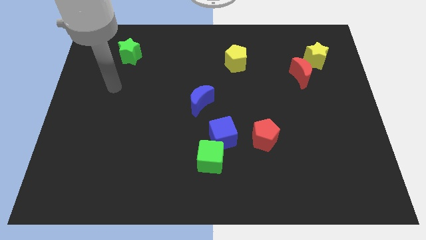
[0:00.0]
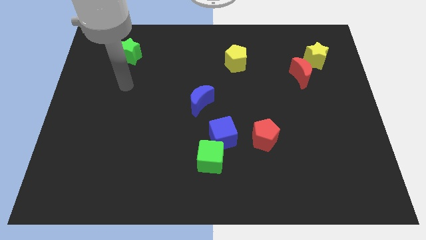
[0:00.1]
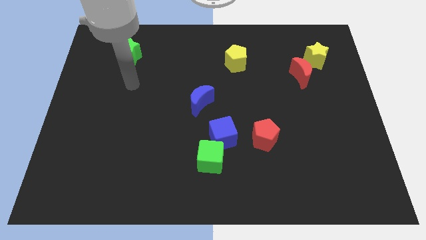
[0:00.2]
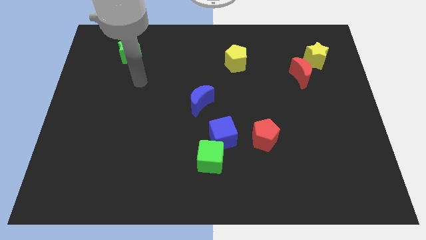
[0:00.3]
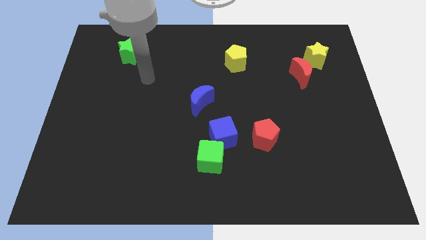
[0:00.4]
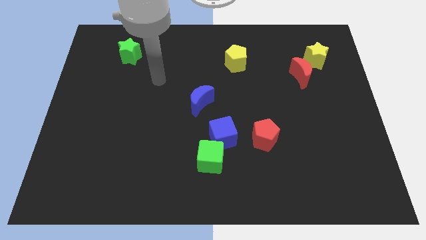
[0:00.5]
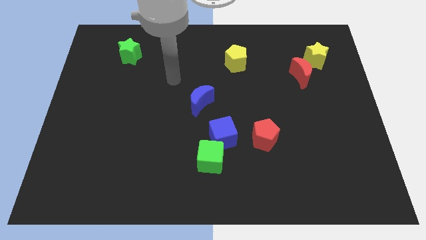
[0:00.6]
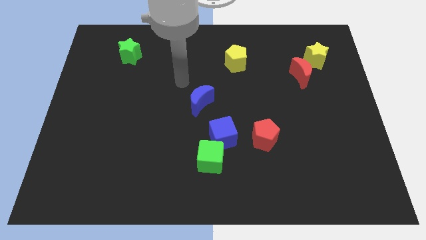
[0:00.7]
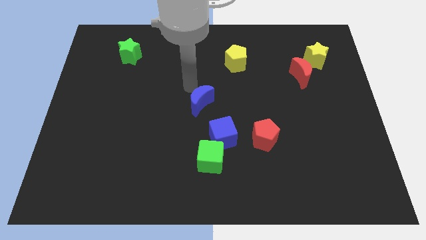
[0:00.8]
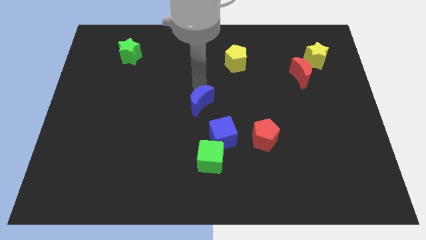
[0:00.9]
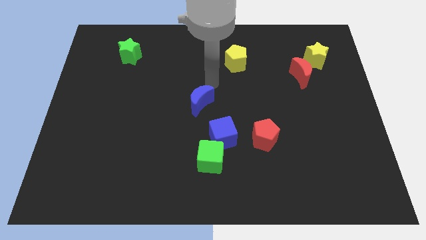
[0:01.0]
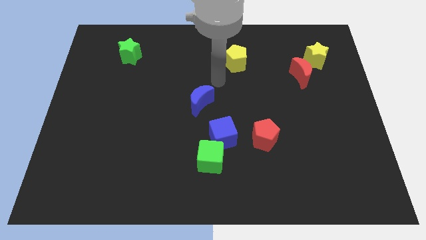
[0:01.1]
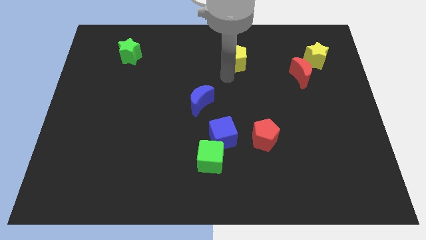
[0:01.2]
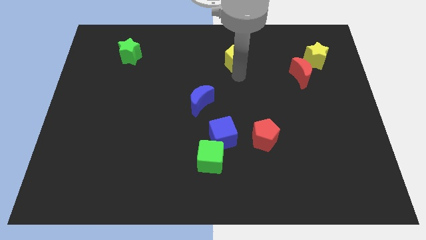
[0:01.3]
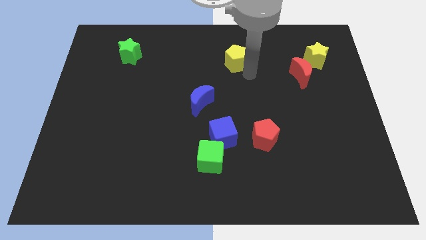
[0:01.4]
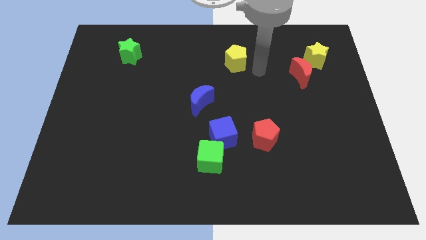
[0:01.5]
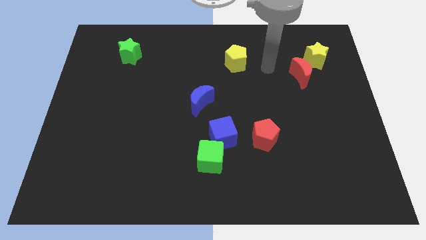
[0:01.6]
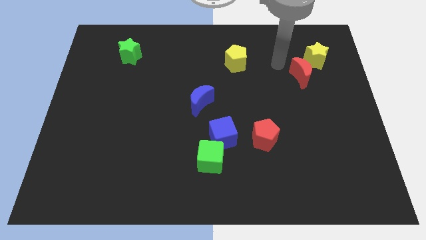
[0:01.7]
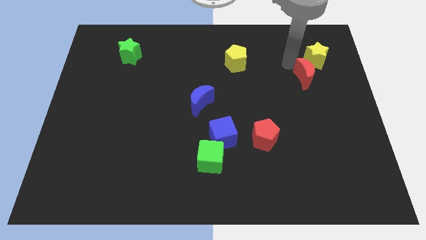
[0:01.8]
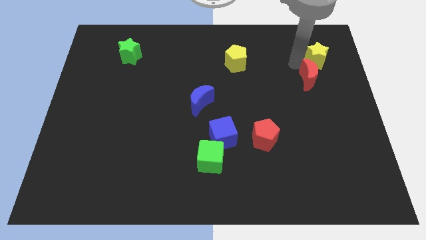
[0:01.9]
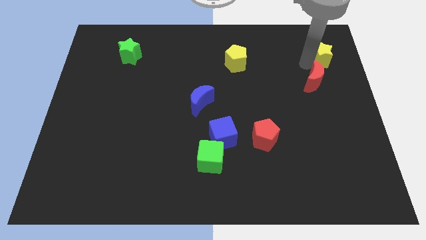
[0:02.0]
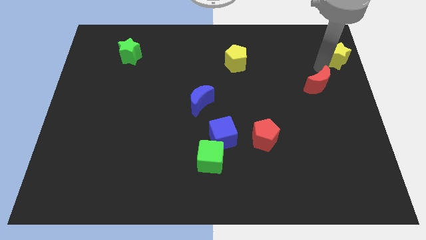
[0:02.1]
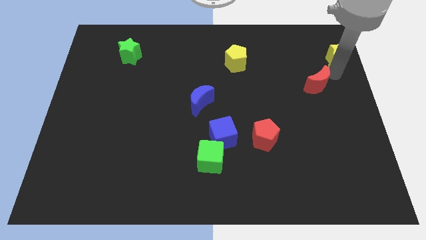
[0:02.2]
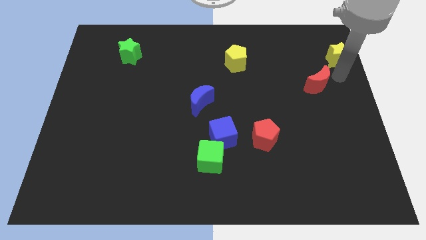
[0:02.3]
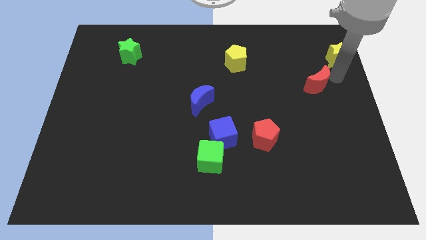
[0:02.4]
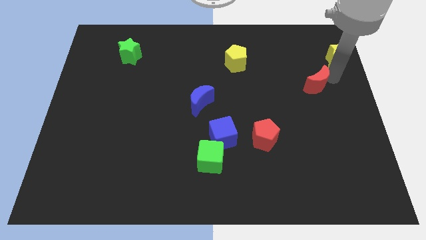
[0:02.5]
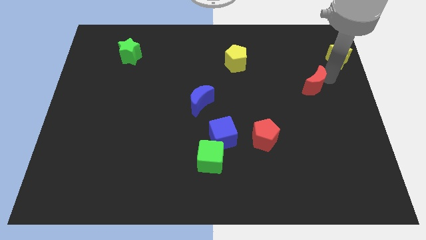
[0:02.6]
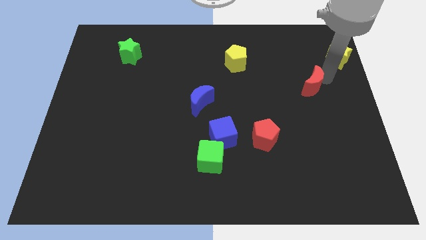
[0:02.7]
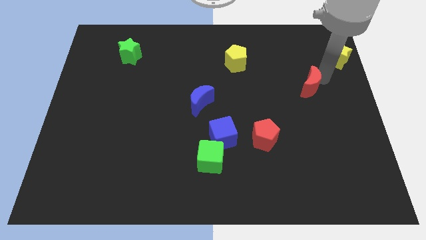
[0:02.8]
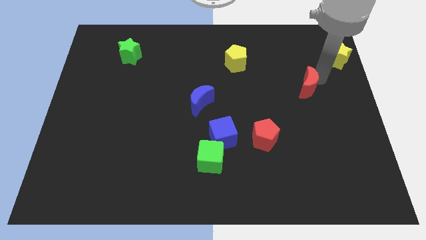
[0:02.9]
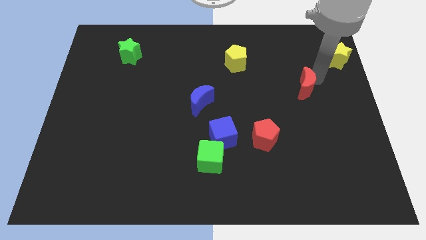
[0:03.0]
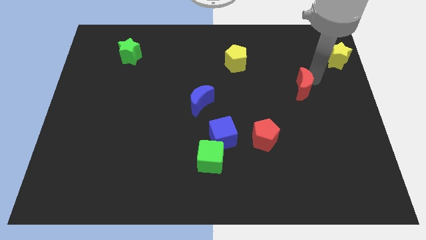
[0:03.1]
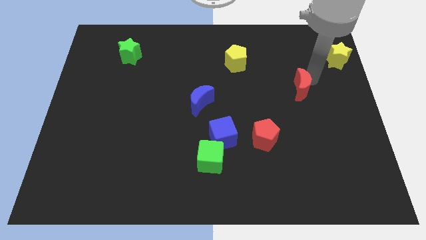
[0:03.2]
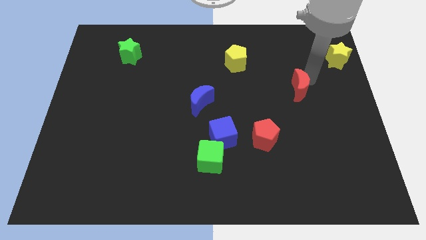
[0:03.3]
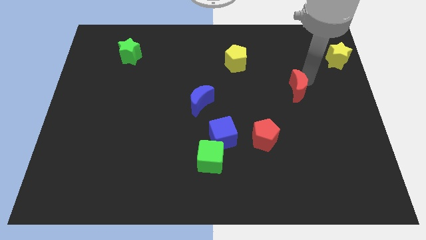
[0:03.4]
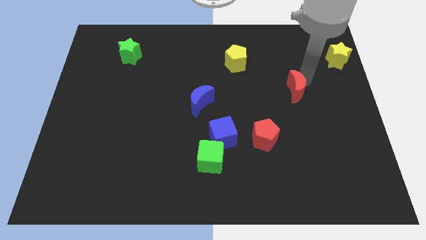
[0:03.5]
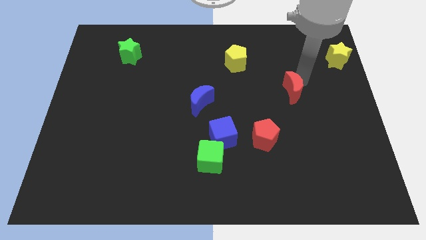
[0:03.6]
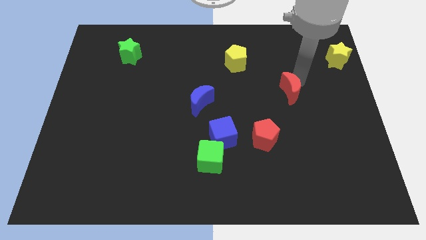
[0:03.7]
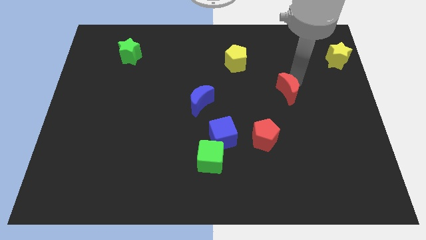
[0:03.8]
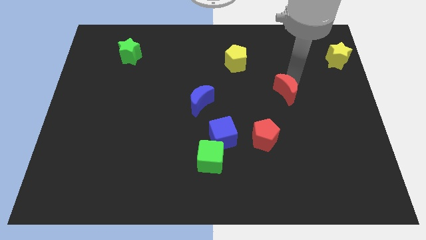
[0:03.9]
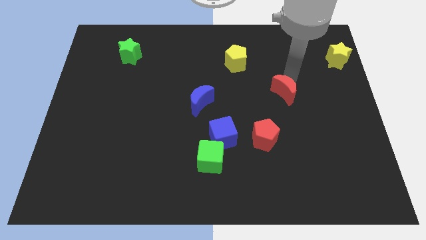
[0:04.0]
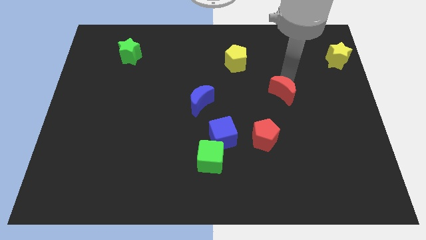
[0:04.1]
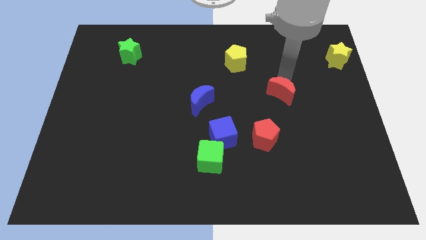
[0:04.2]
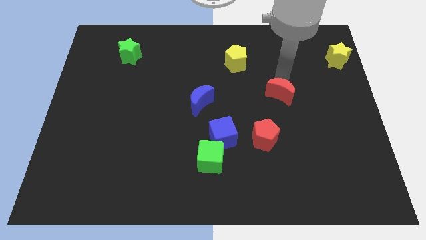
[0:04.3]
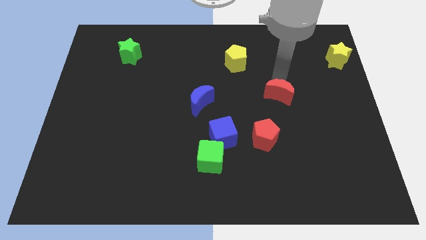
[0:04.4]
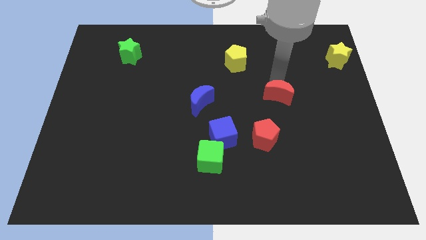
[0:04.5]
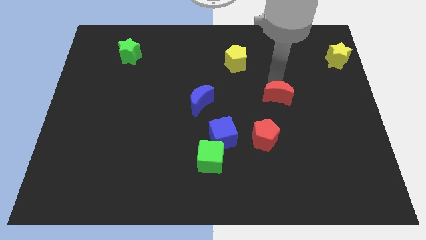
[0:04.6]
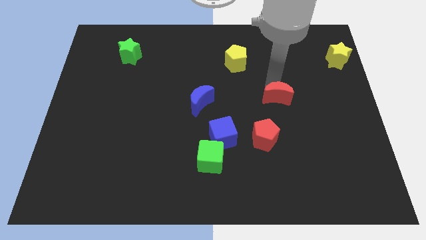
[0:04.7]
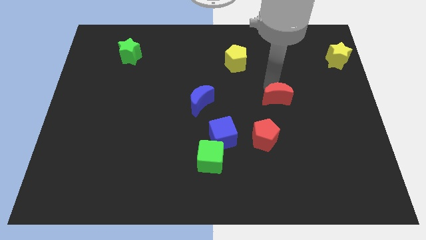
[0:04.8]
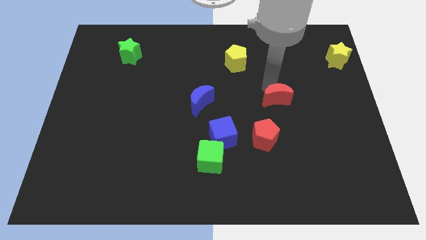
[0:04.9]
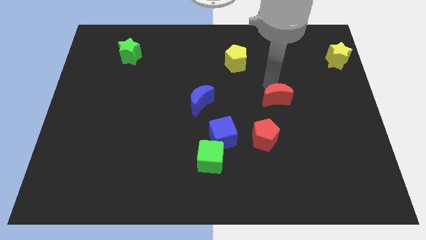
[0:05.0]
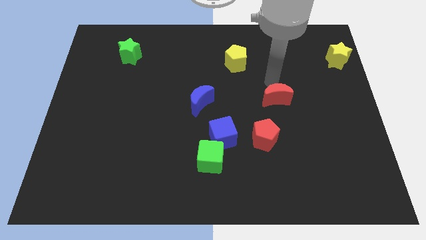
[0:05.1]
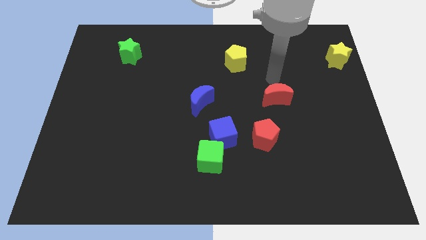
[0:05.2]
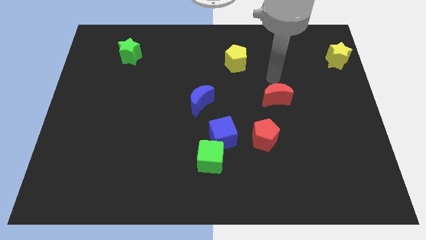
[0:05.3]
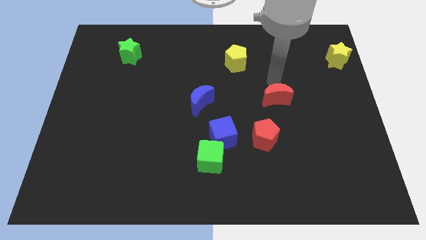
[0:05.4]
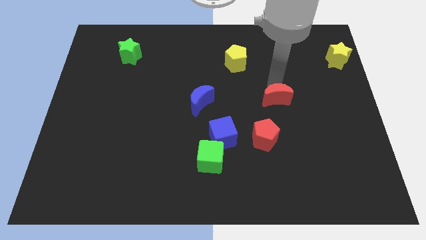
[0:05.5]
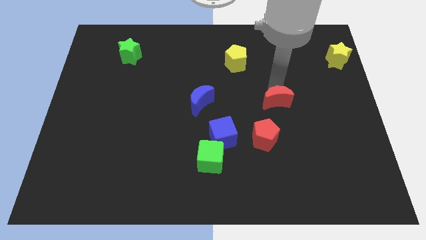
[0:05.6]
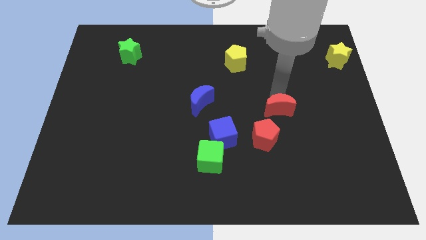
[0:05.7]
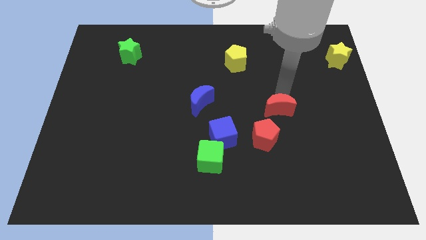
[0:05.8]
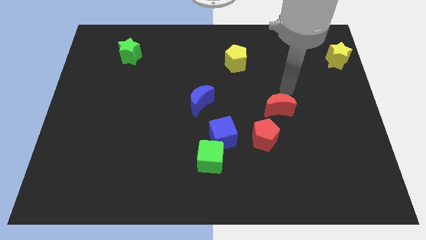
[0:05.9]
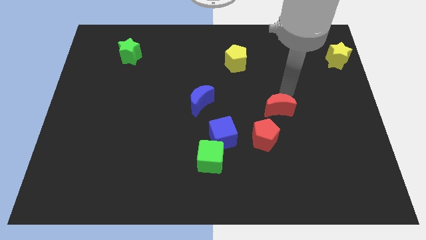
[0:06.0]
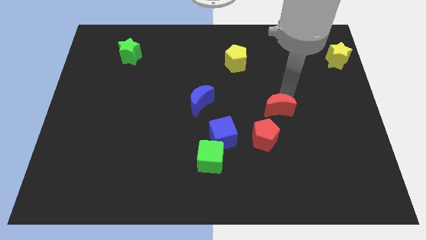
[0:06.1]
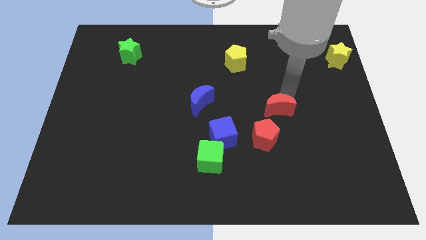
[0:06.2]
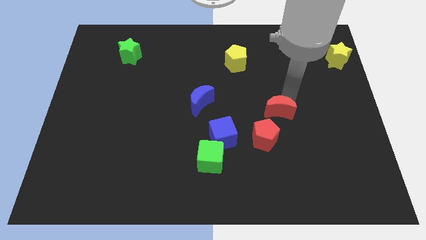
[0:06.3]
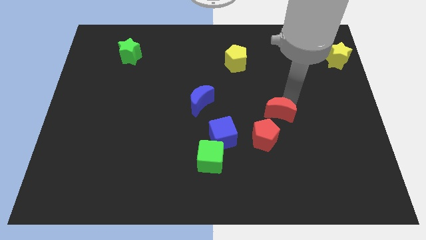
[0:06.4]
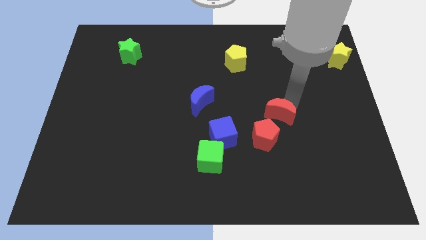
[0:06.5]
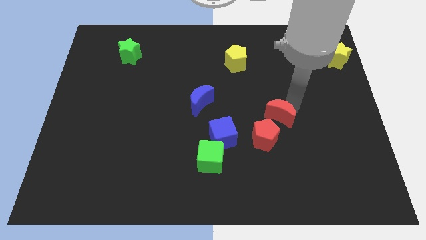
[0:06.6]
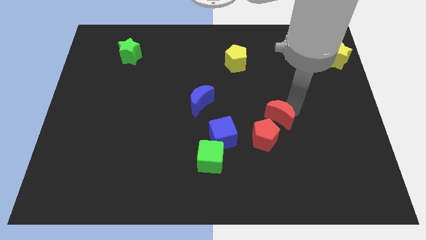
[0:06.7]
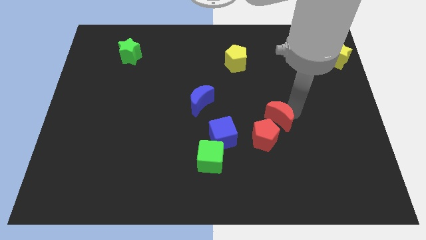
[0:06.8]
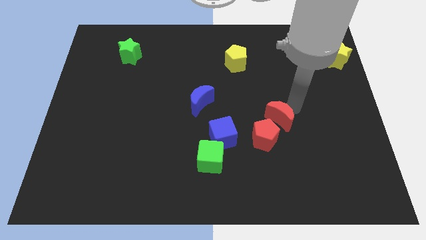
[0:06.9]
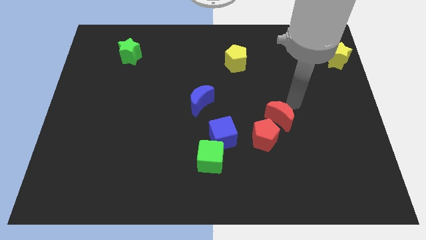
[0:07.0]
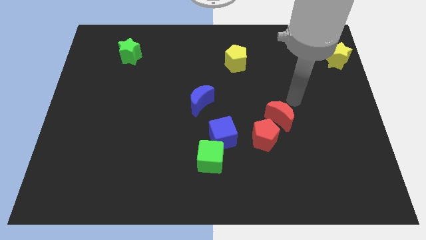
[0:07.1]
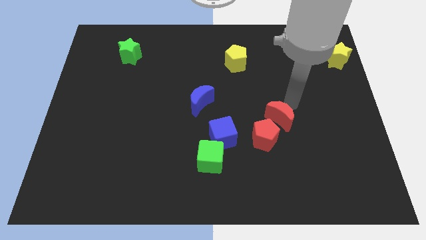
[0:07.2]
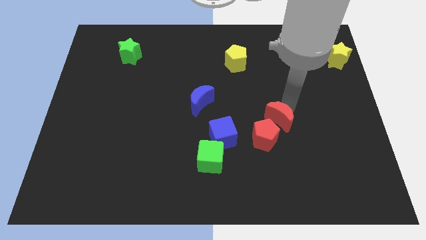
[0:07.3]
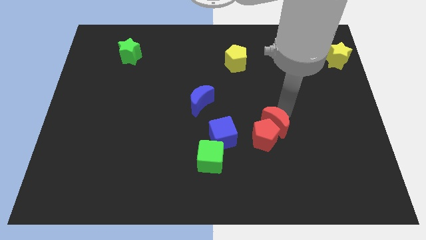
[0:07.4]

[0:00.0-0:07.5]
slide the red moon close to the red pentagon
